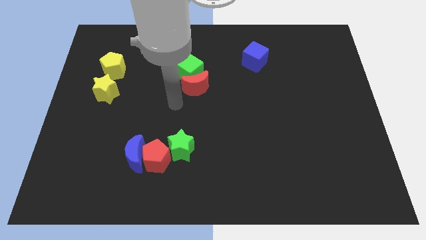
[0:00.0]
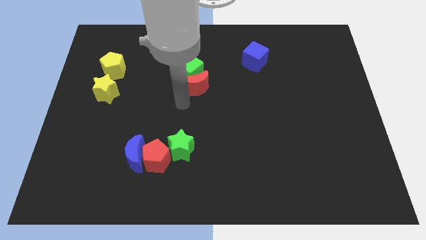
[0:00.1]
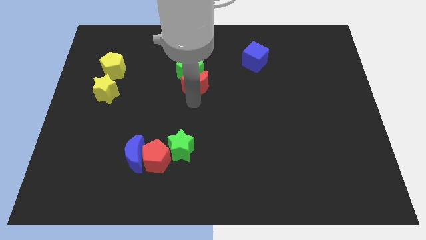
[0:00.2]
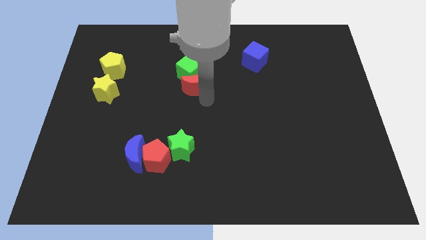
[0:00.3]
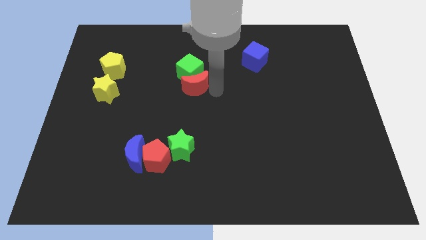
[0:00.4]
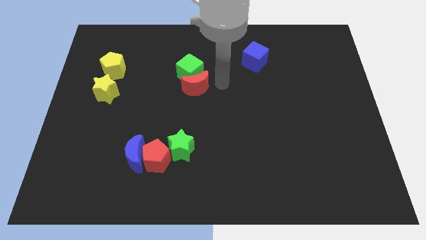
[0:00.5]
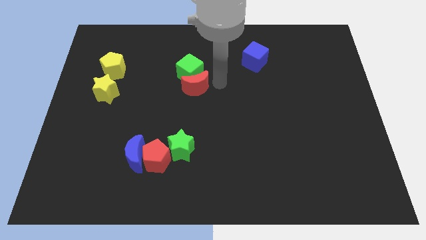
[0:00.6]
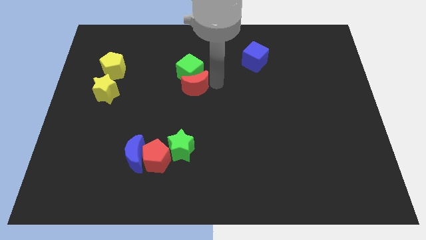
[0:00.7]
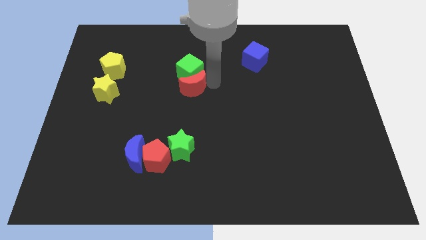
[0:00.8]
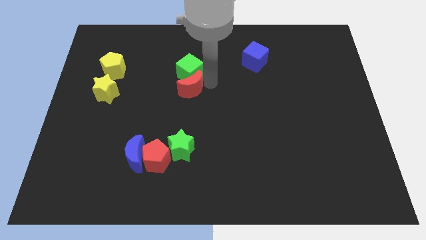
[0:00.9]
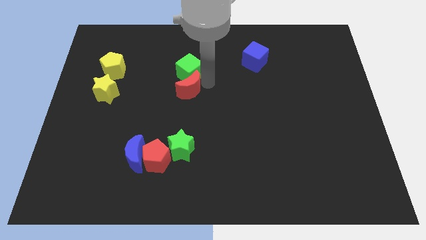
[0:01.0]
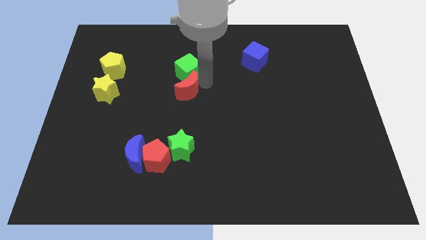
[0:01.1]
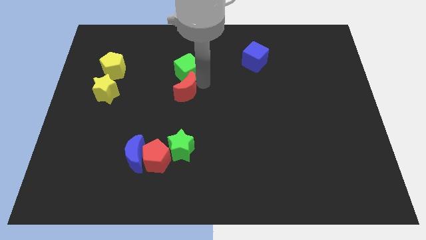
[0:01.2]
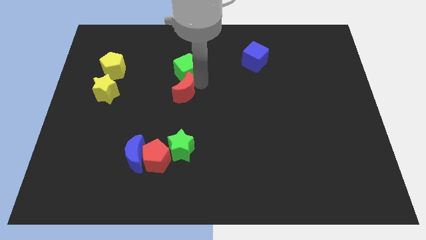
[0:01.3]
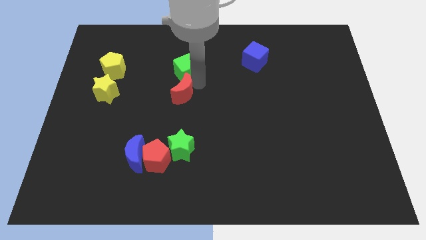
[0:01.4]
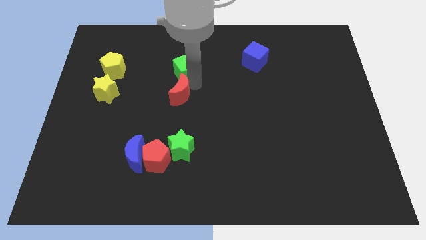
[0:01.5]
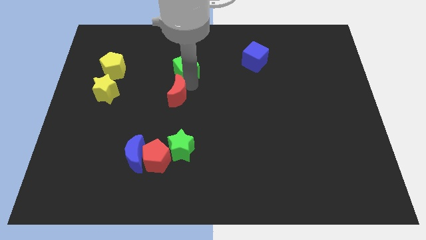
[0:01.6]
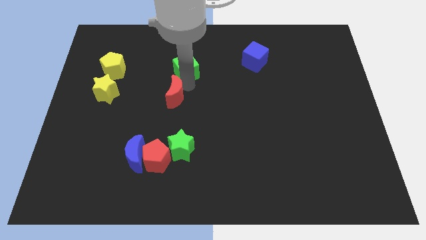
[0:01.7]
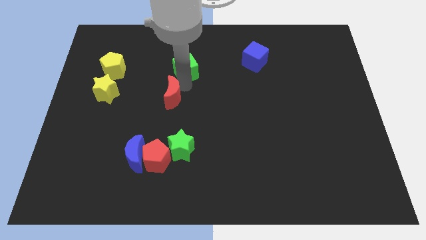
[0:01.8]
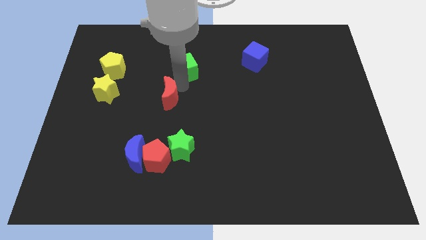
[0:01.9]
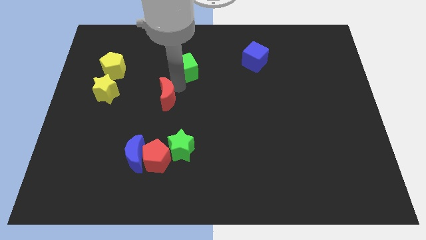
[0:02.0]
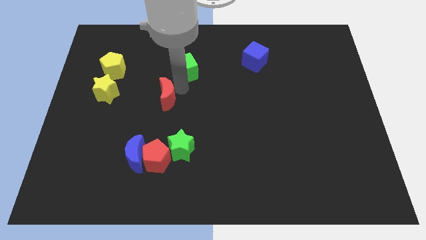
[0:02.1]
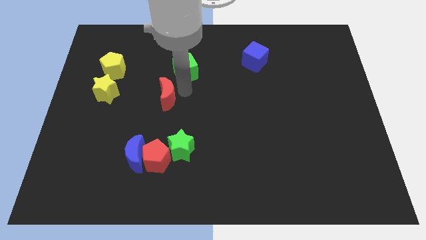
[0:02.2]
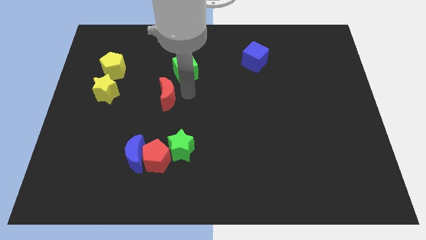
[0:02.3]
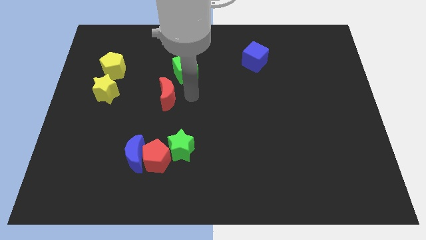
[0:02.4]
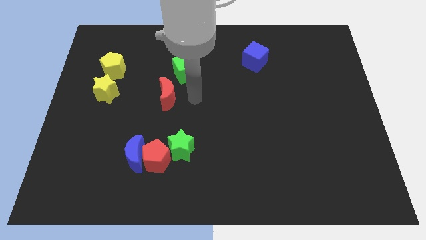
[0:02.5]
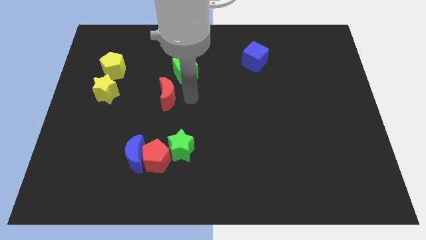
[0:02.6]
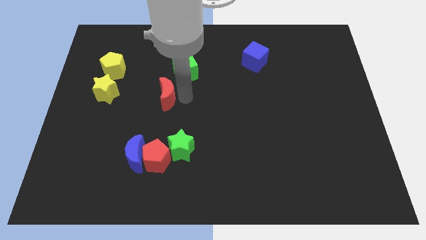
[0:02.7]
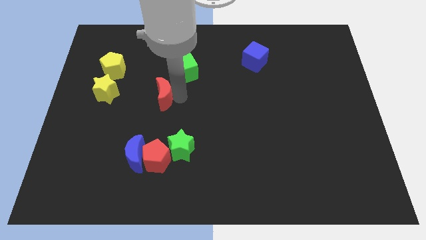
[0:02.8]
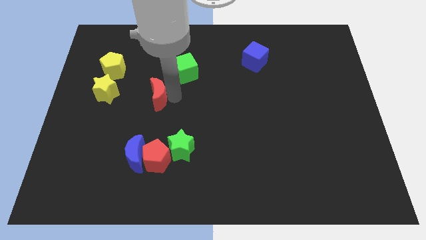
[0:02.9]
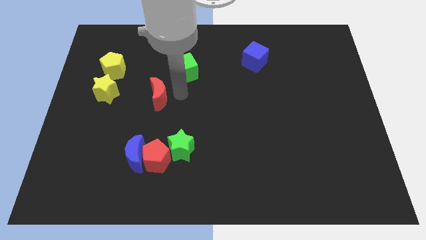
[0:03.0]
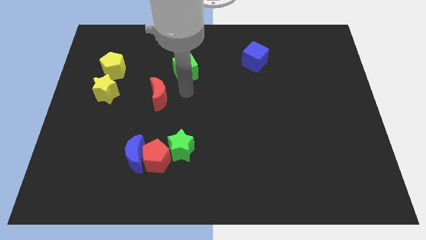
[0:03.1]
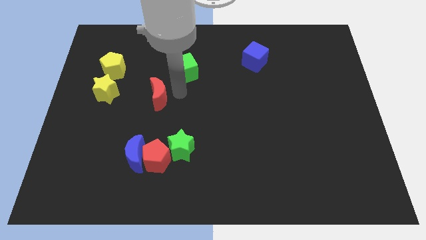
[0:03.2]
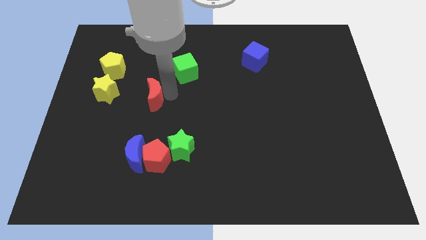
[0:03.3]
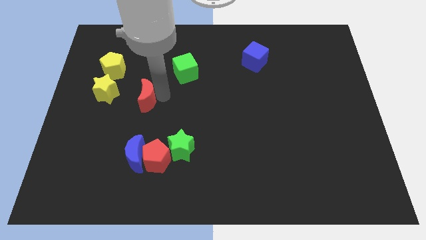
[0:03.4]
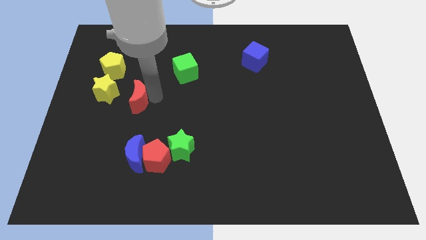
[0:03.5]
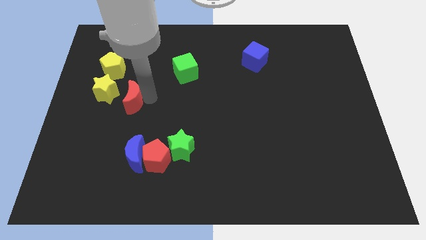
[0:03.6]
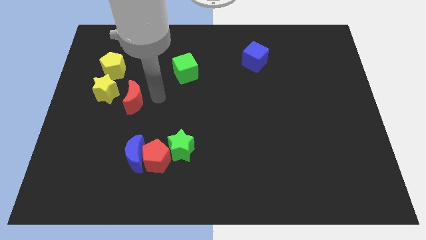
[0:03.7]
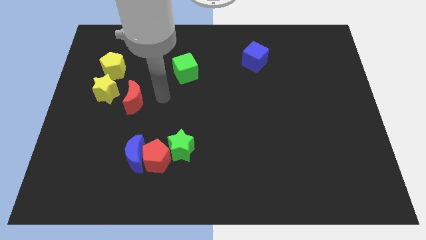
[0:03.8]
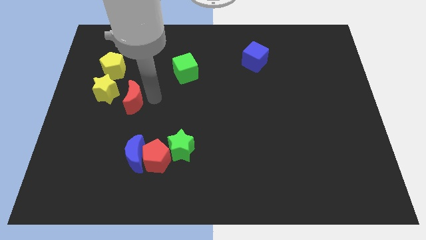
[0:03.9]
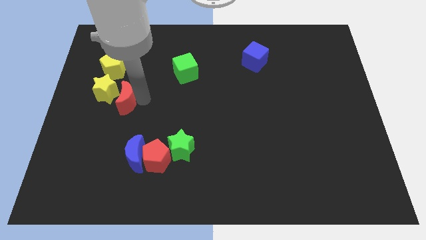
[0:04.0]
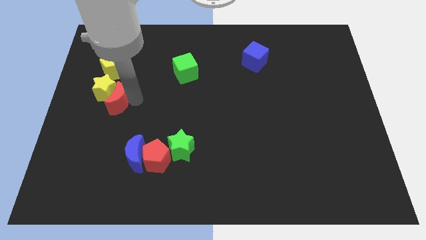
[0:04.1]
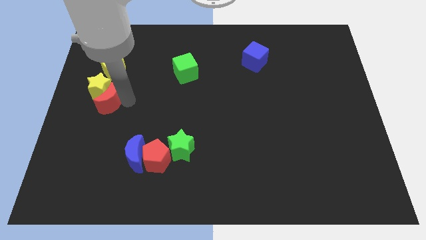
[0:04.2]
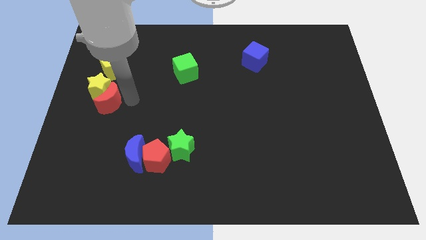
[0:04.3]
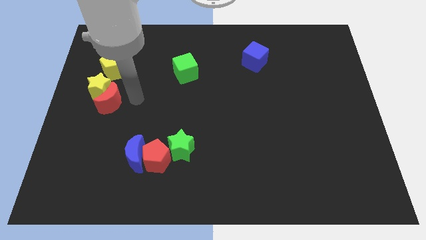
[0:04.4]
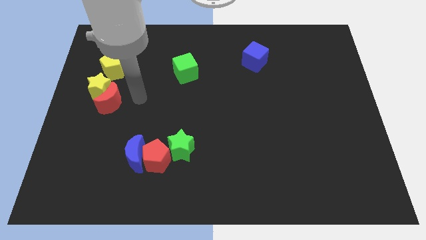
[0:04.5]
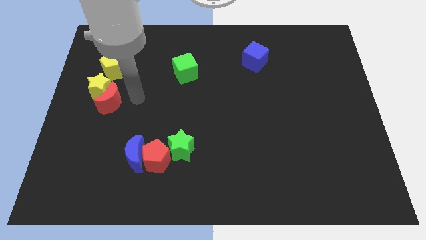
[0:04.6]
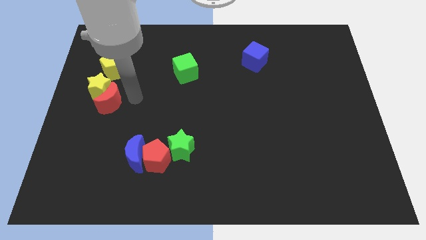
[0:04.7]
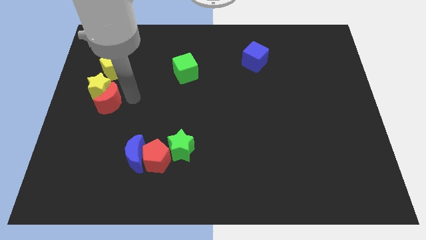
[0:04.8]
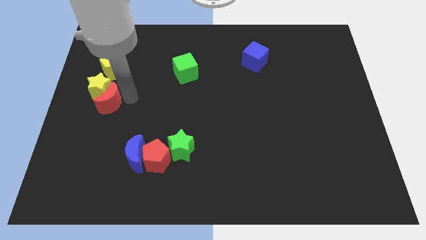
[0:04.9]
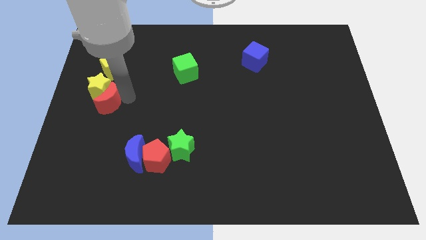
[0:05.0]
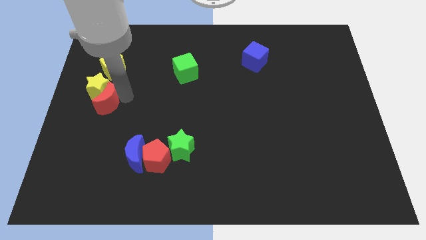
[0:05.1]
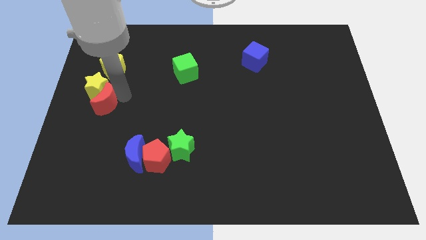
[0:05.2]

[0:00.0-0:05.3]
put the red moon to the center left

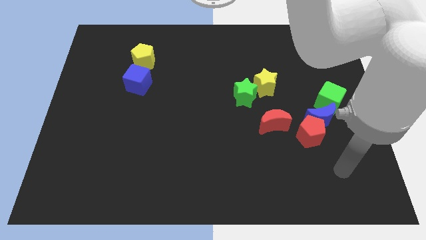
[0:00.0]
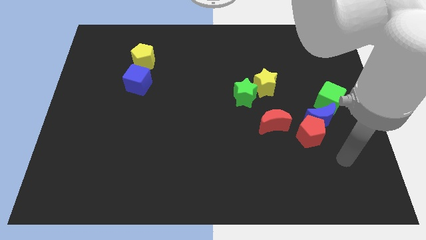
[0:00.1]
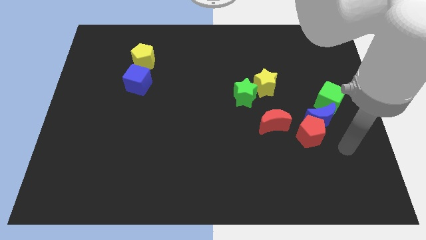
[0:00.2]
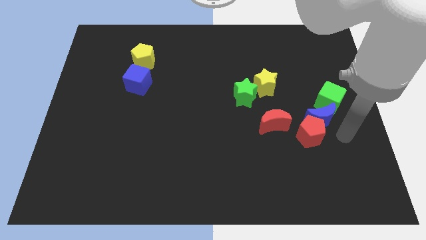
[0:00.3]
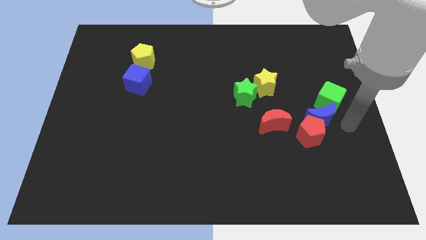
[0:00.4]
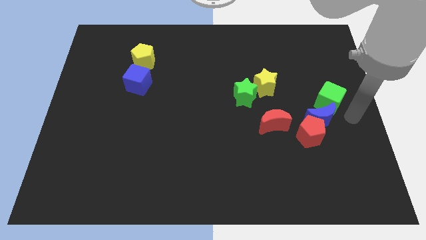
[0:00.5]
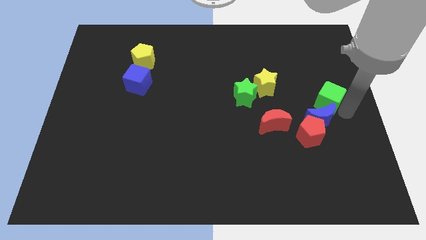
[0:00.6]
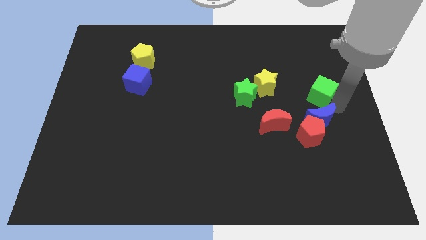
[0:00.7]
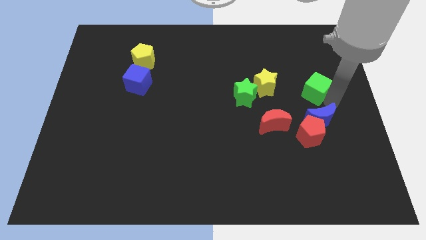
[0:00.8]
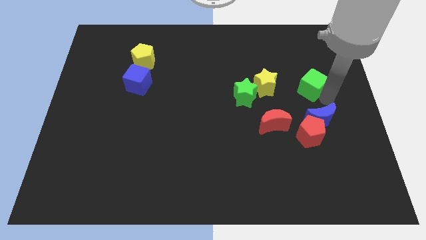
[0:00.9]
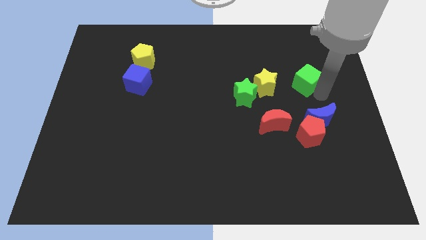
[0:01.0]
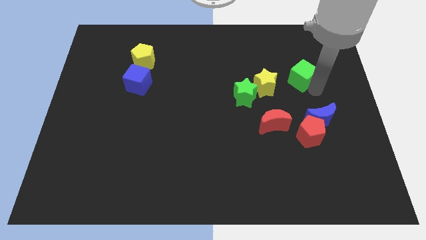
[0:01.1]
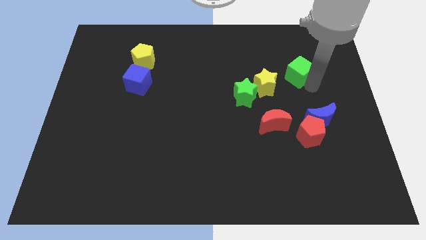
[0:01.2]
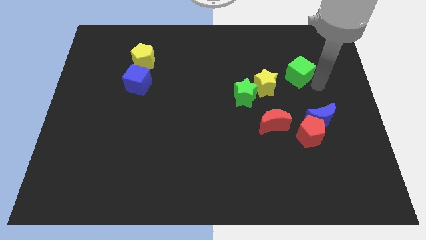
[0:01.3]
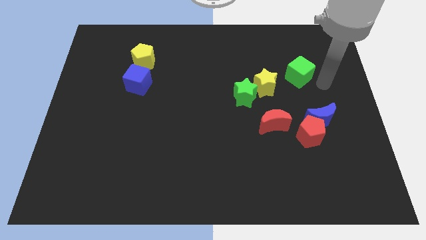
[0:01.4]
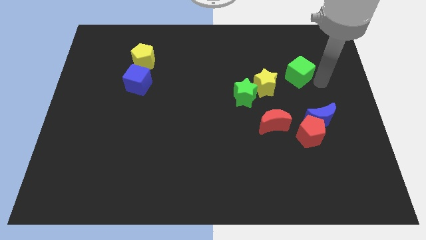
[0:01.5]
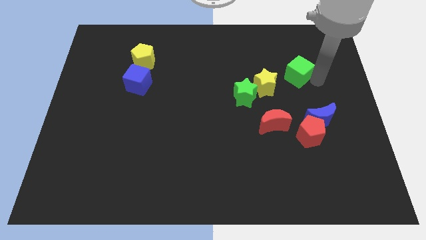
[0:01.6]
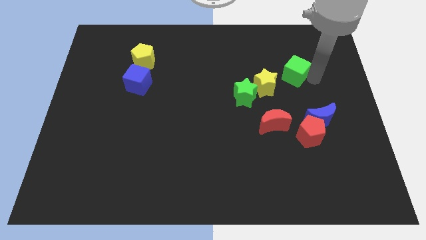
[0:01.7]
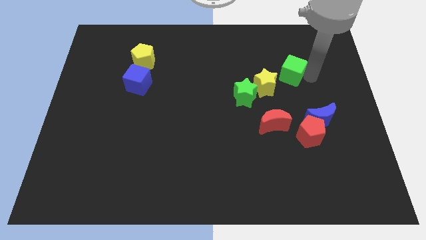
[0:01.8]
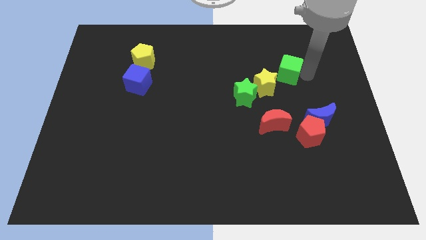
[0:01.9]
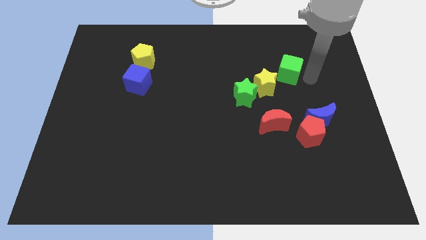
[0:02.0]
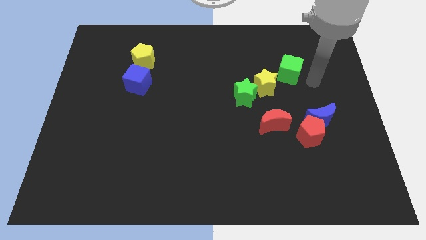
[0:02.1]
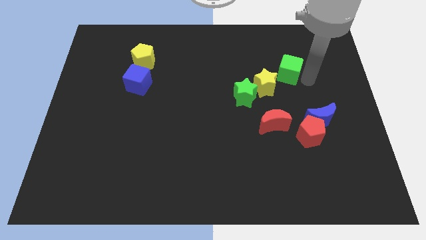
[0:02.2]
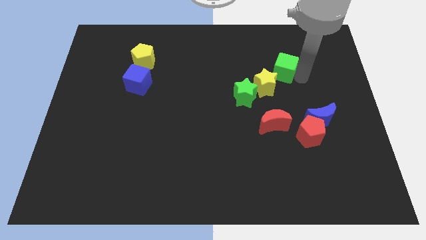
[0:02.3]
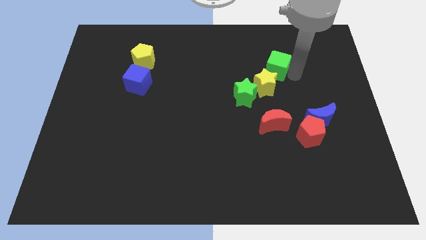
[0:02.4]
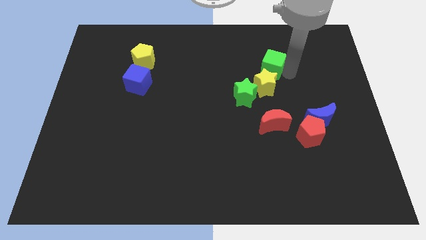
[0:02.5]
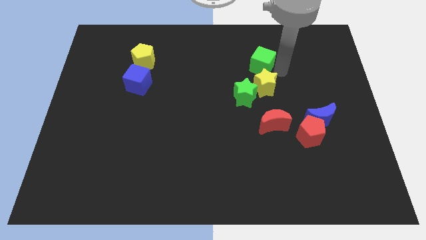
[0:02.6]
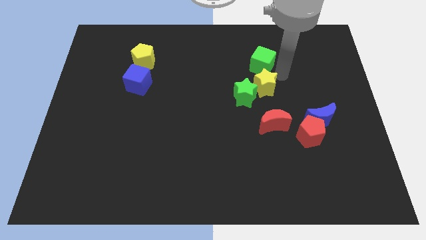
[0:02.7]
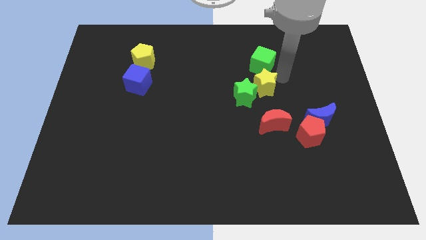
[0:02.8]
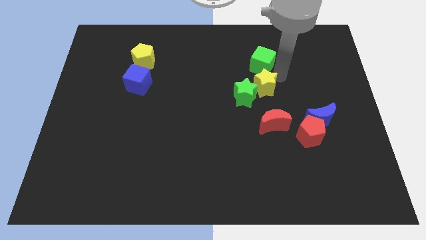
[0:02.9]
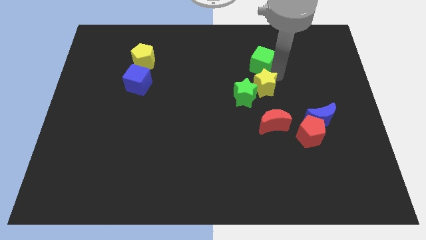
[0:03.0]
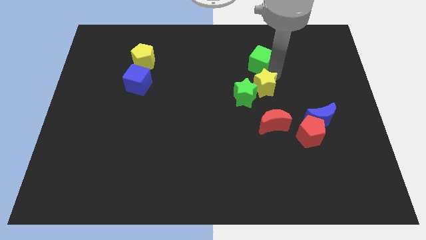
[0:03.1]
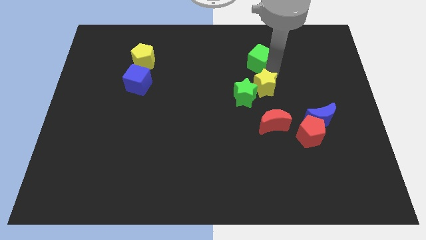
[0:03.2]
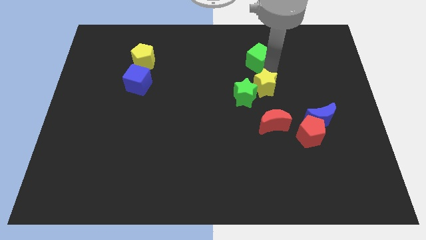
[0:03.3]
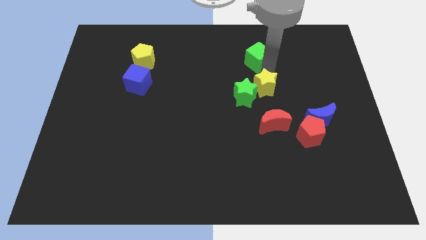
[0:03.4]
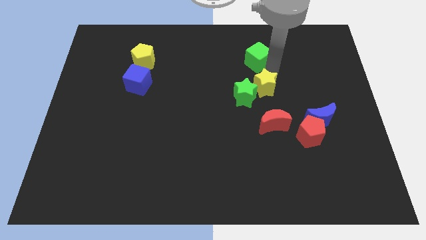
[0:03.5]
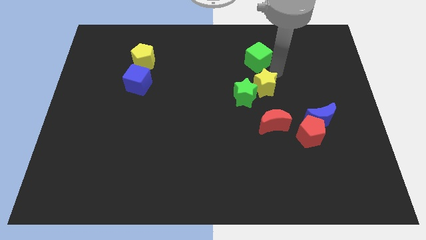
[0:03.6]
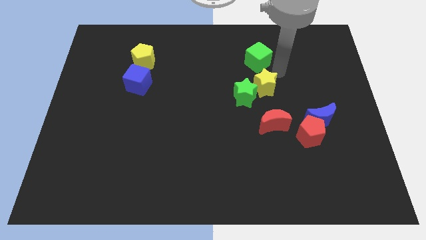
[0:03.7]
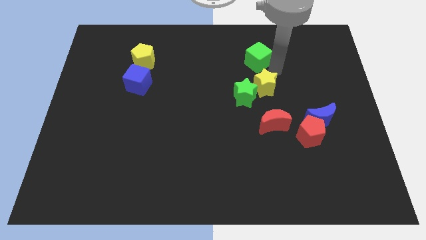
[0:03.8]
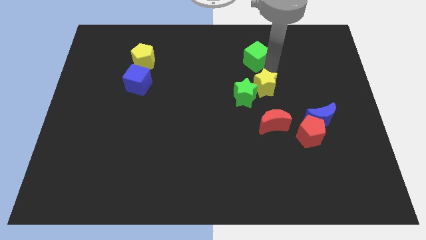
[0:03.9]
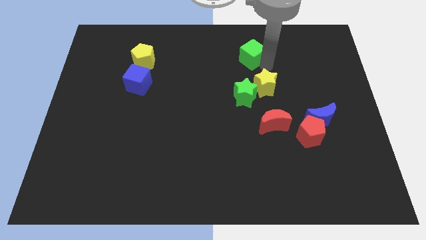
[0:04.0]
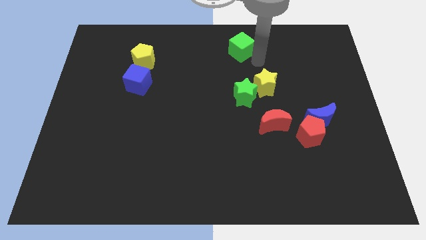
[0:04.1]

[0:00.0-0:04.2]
slide the green cube to the towards your base
